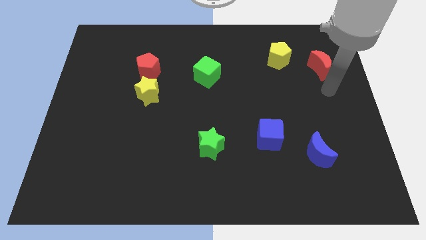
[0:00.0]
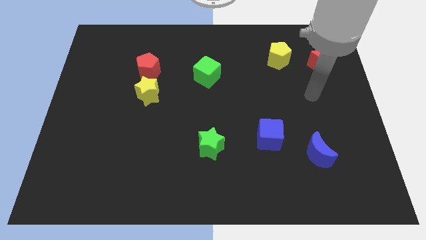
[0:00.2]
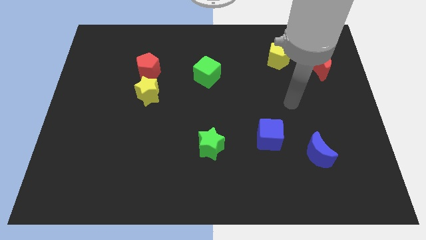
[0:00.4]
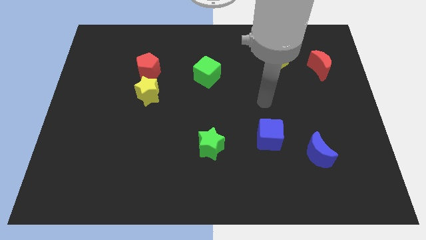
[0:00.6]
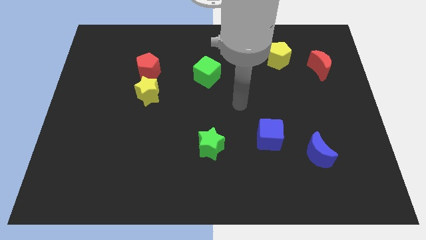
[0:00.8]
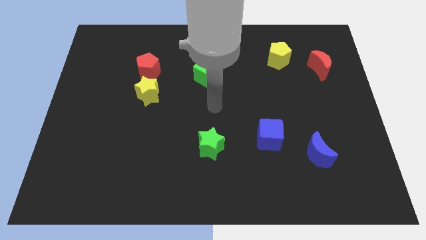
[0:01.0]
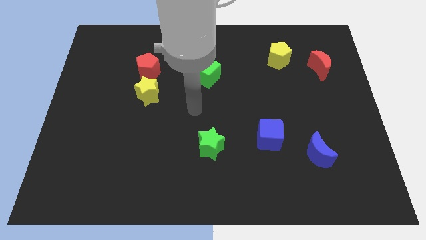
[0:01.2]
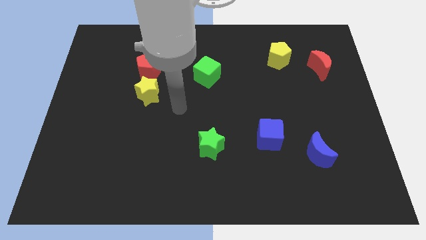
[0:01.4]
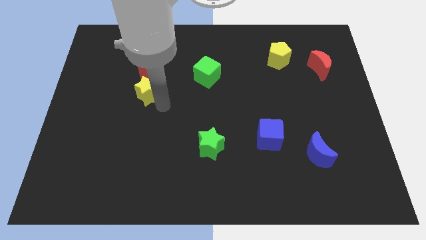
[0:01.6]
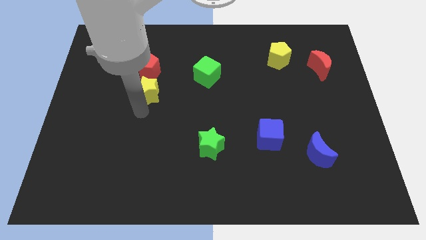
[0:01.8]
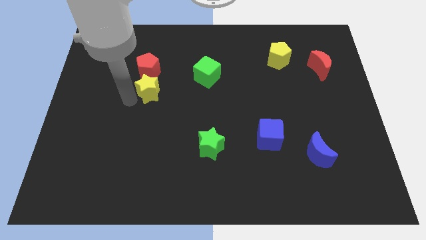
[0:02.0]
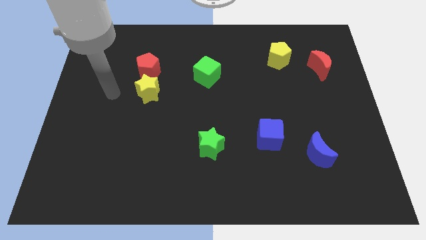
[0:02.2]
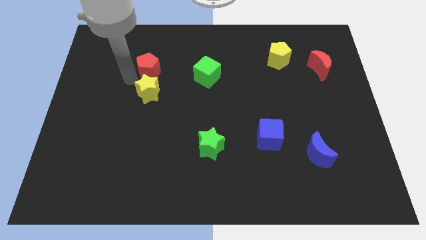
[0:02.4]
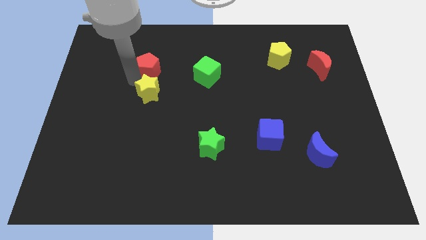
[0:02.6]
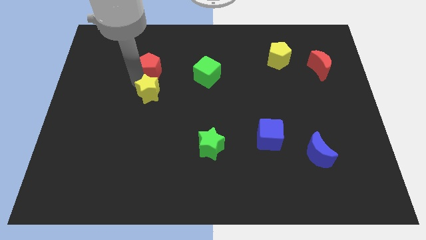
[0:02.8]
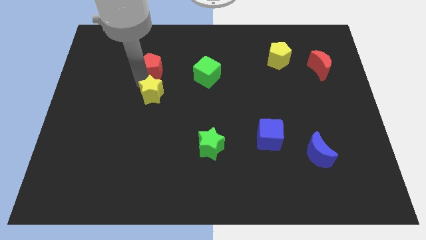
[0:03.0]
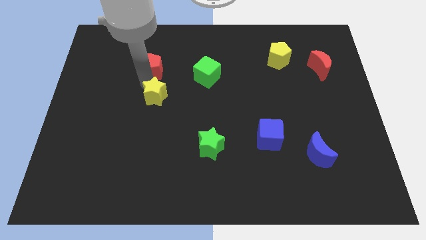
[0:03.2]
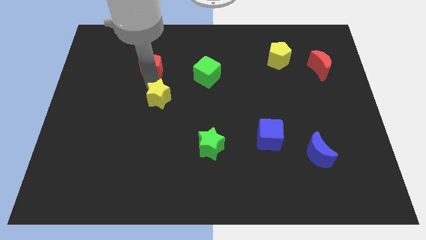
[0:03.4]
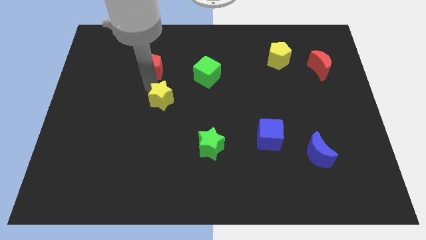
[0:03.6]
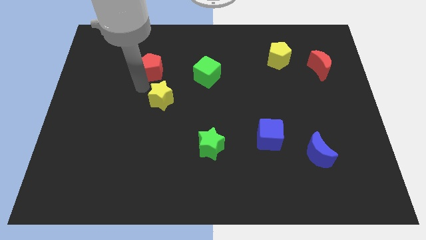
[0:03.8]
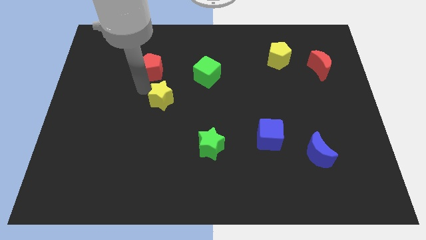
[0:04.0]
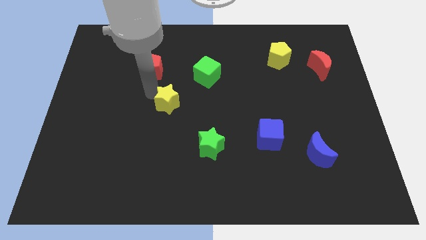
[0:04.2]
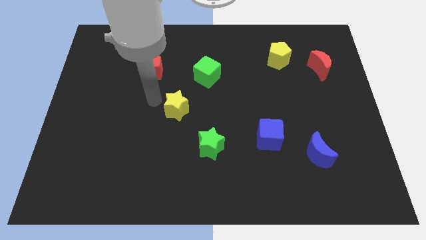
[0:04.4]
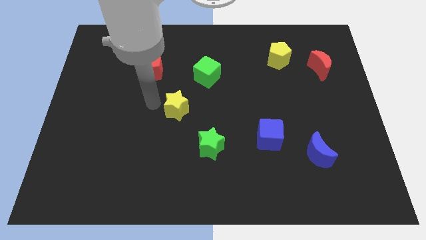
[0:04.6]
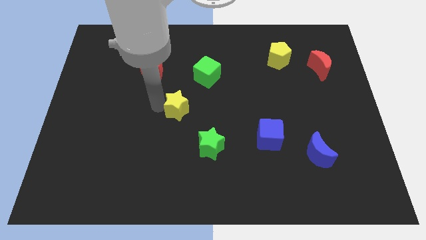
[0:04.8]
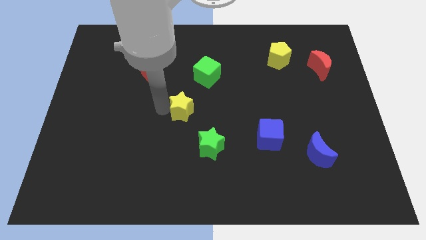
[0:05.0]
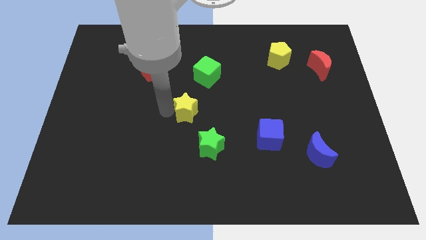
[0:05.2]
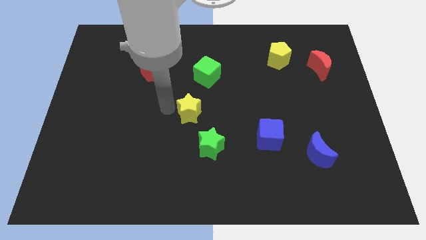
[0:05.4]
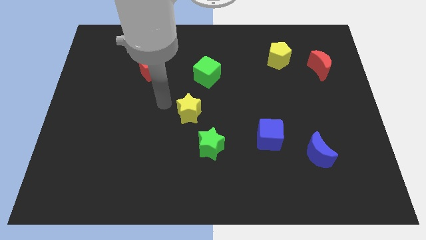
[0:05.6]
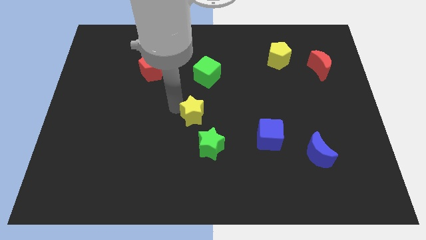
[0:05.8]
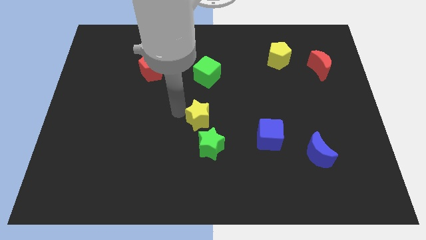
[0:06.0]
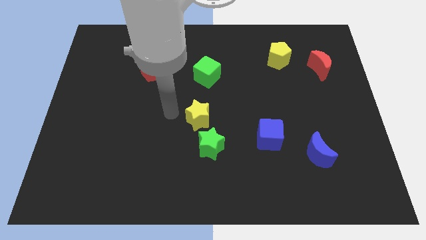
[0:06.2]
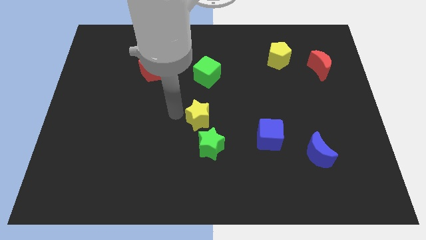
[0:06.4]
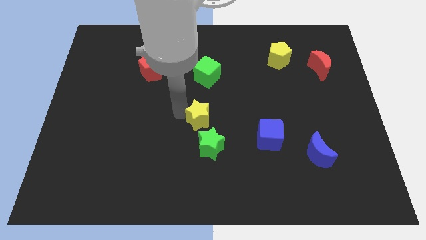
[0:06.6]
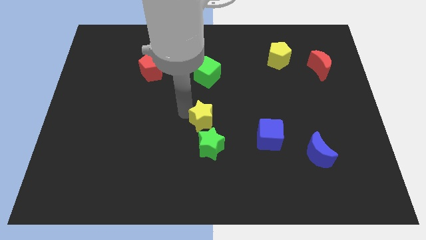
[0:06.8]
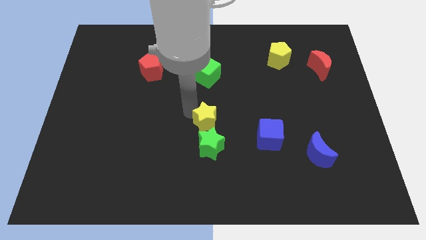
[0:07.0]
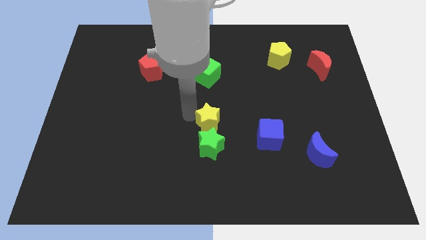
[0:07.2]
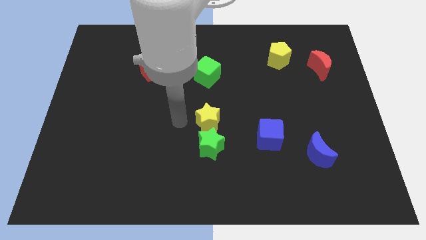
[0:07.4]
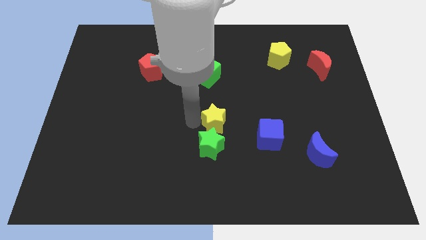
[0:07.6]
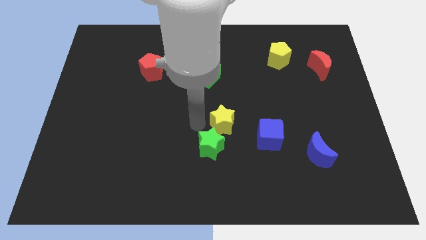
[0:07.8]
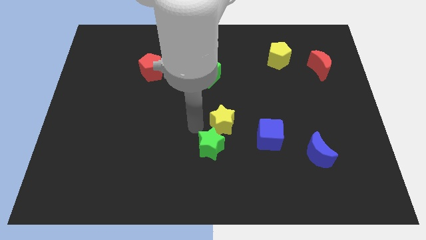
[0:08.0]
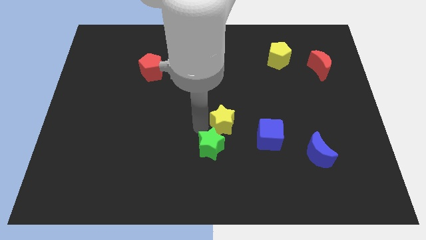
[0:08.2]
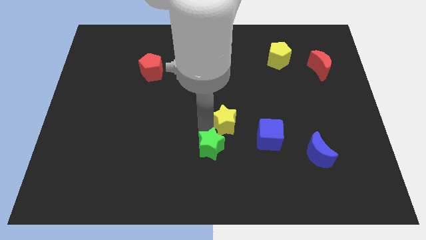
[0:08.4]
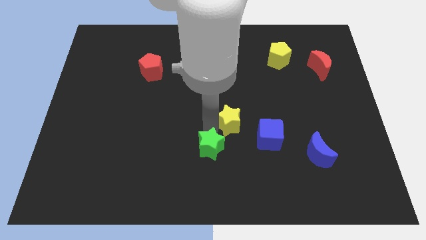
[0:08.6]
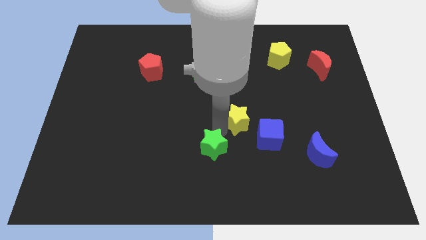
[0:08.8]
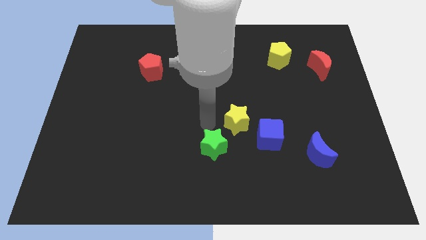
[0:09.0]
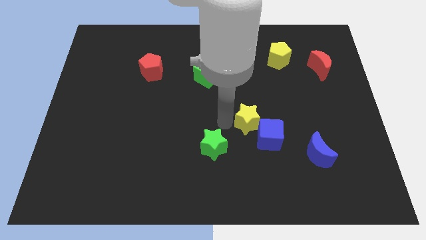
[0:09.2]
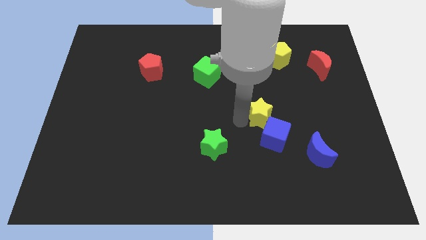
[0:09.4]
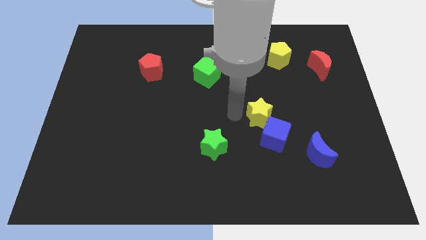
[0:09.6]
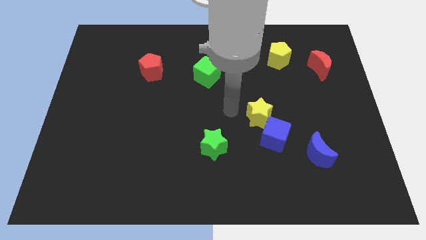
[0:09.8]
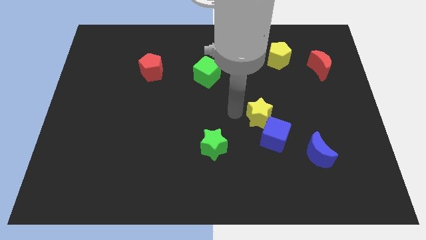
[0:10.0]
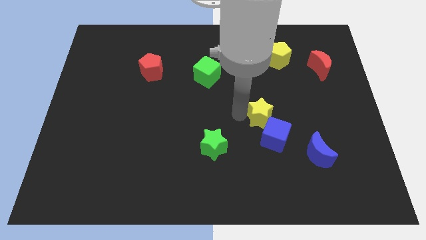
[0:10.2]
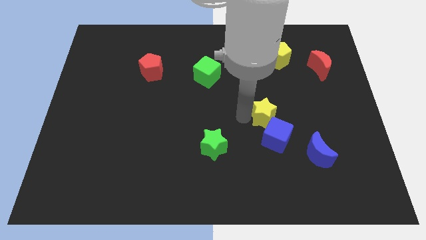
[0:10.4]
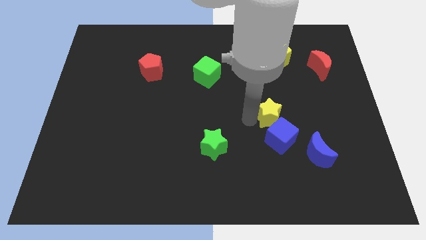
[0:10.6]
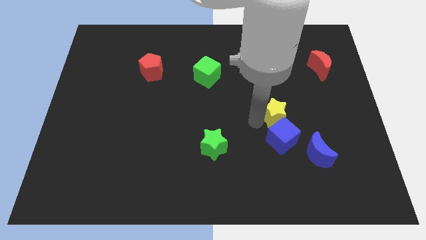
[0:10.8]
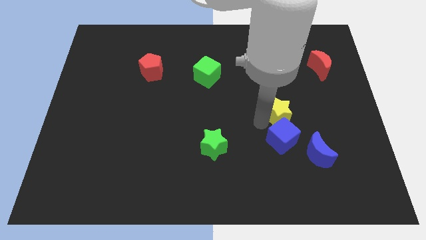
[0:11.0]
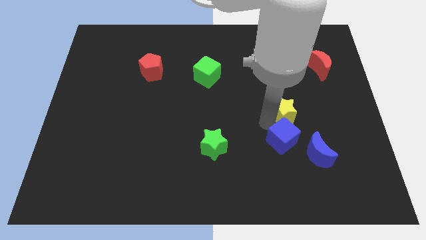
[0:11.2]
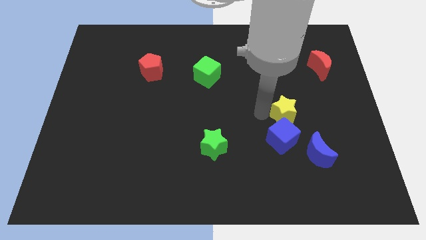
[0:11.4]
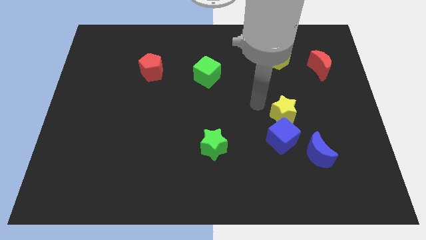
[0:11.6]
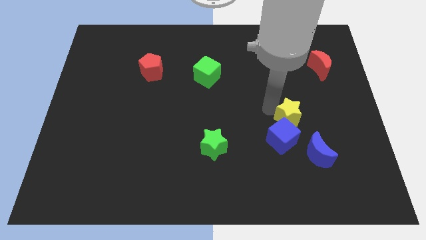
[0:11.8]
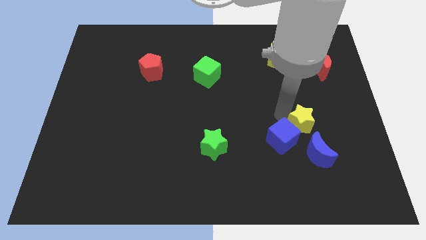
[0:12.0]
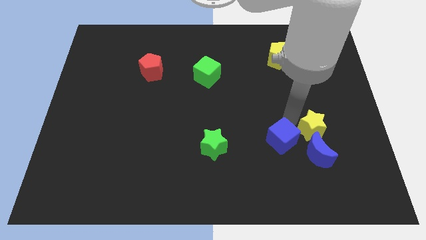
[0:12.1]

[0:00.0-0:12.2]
move the yellow star to the top right of the blue moon
